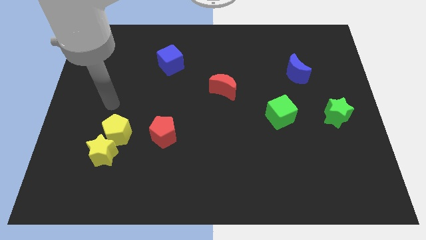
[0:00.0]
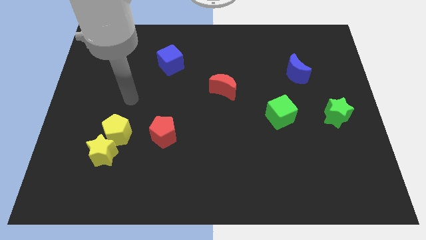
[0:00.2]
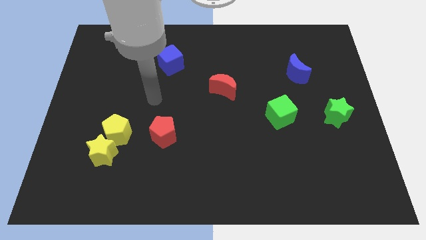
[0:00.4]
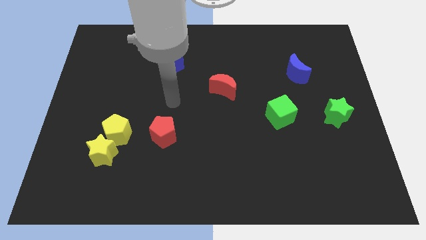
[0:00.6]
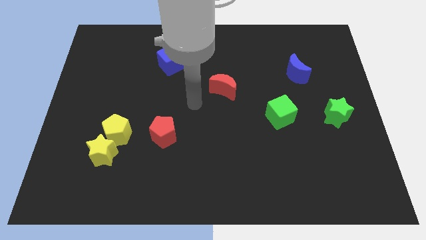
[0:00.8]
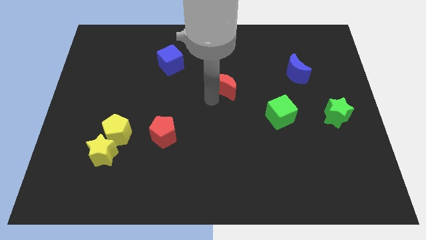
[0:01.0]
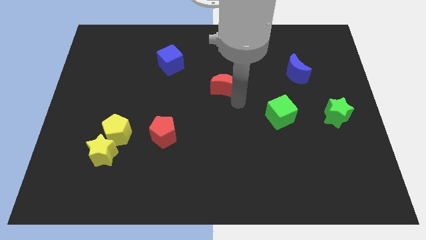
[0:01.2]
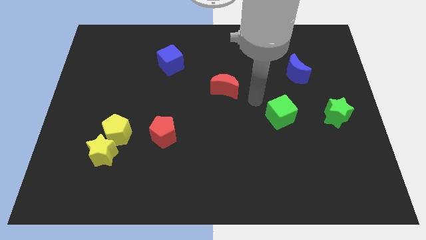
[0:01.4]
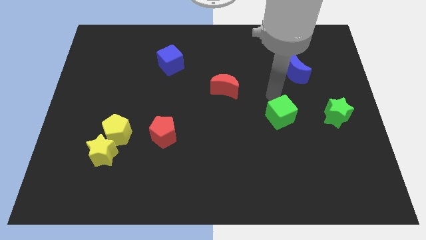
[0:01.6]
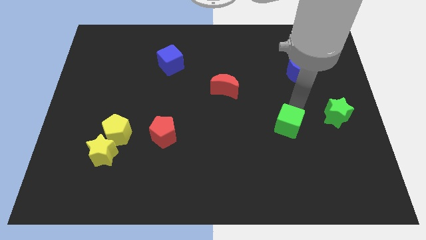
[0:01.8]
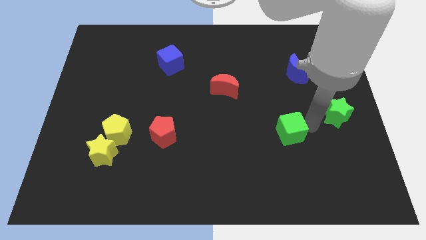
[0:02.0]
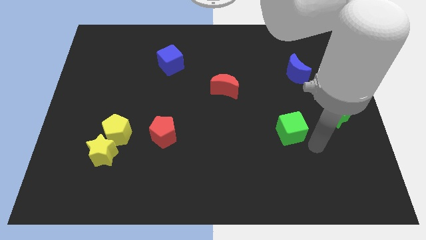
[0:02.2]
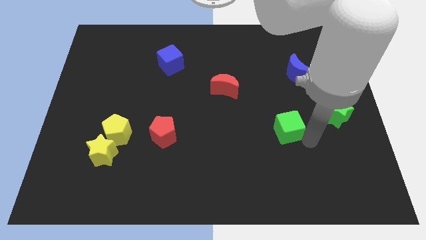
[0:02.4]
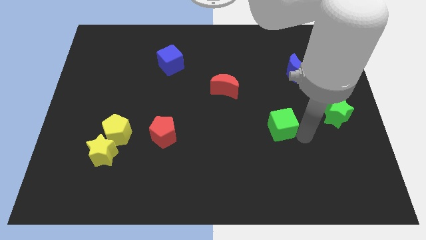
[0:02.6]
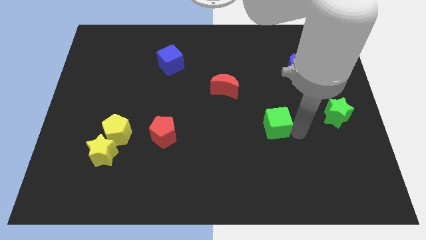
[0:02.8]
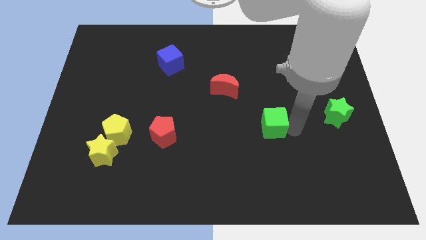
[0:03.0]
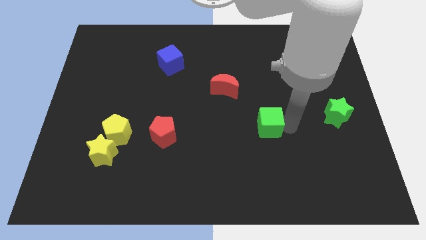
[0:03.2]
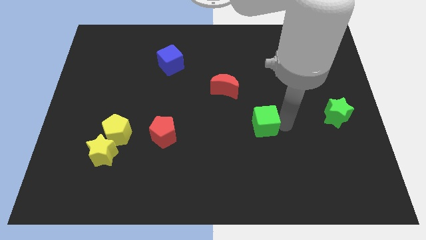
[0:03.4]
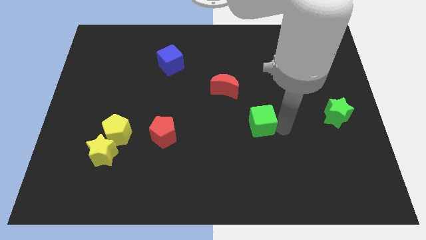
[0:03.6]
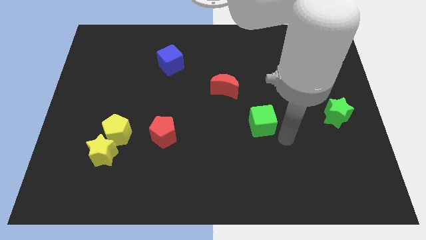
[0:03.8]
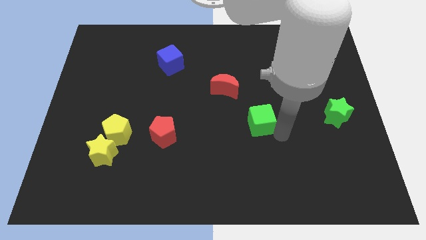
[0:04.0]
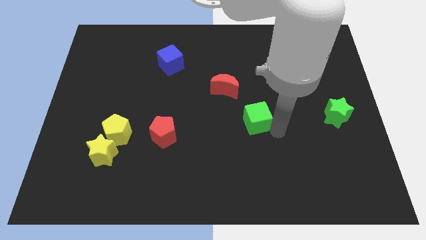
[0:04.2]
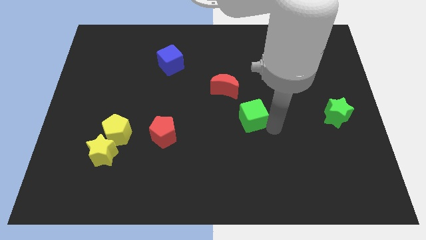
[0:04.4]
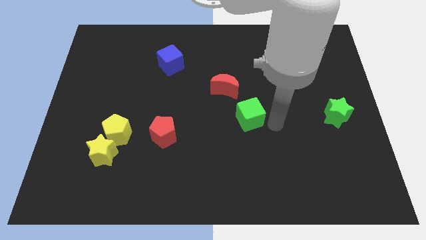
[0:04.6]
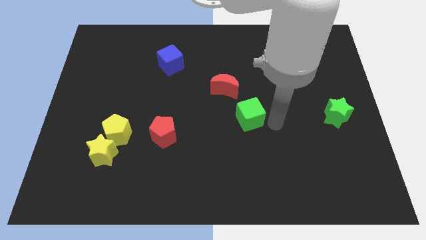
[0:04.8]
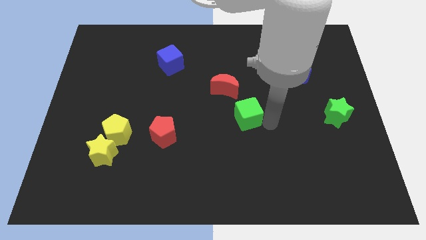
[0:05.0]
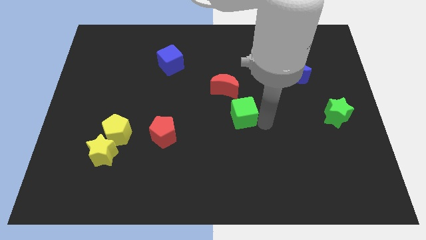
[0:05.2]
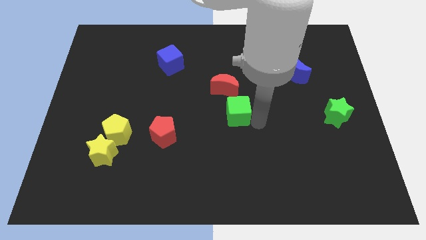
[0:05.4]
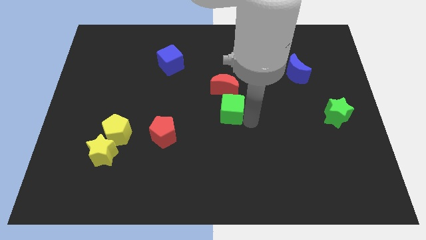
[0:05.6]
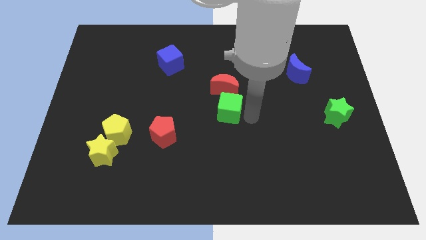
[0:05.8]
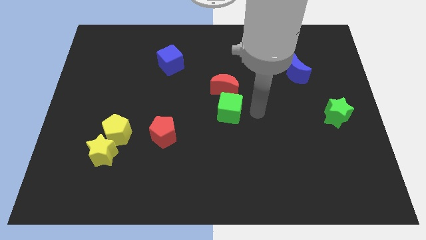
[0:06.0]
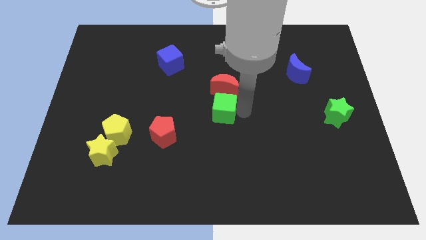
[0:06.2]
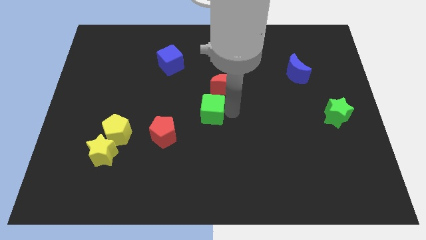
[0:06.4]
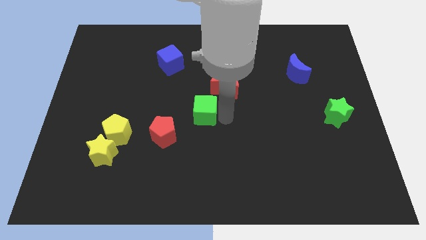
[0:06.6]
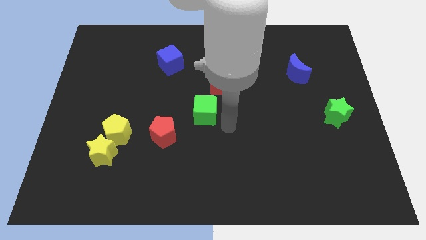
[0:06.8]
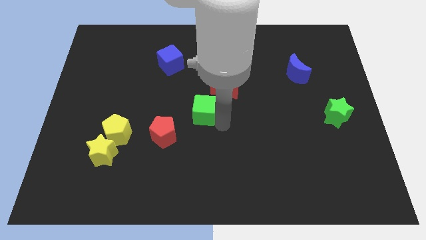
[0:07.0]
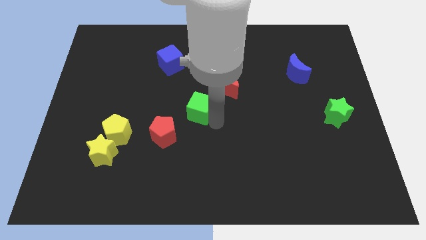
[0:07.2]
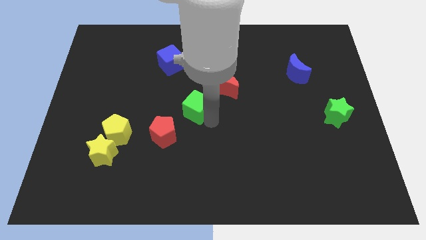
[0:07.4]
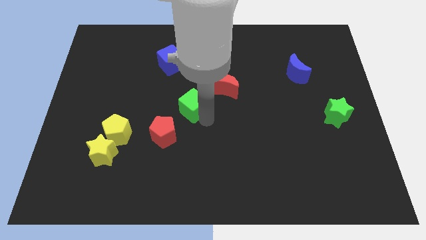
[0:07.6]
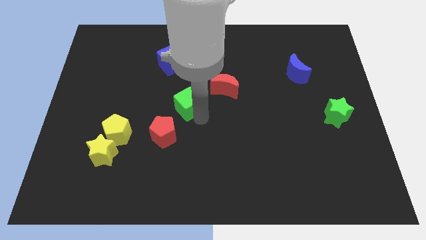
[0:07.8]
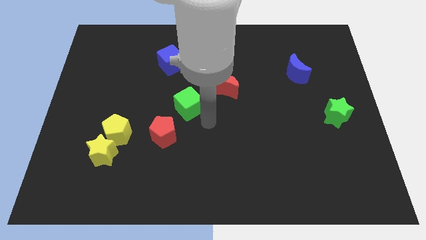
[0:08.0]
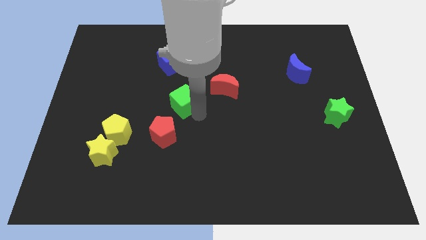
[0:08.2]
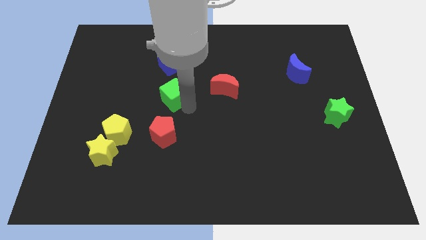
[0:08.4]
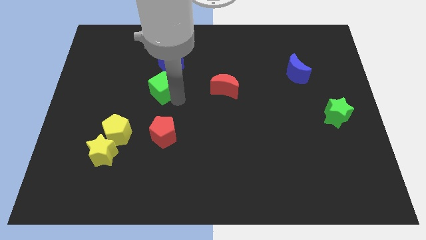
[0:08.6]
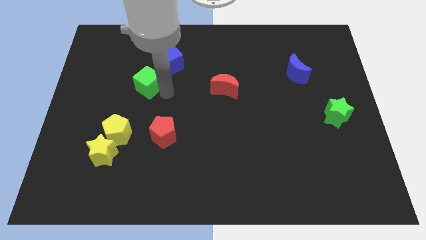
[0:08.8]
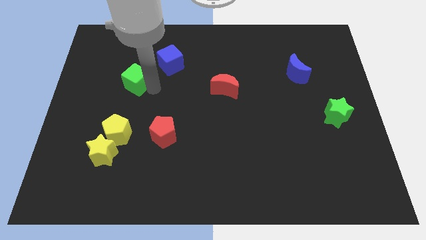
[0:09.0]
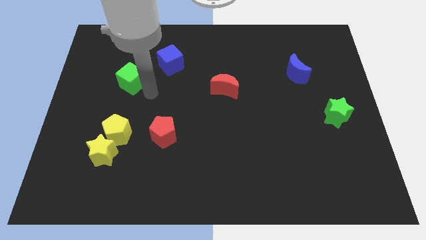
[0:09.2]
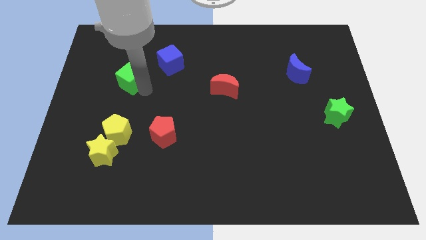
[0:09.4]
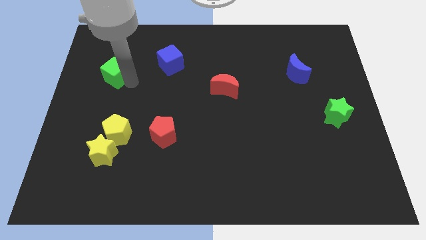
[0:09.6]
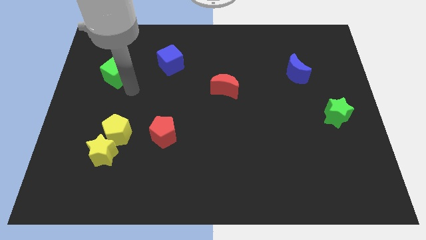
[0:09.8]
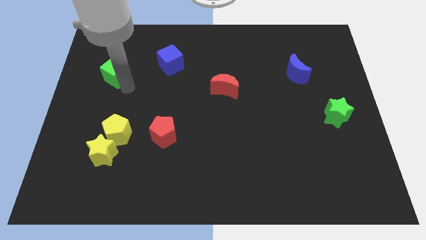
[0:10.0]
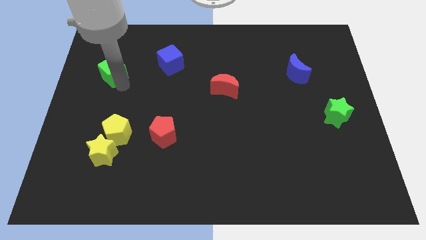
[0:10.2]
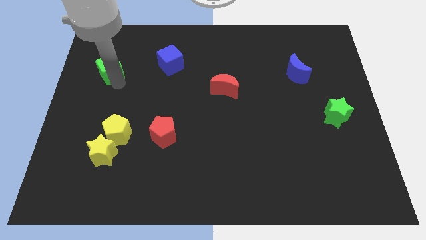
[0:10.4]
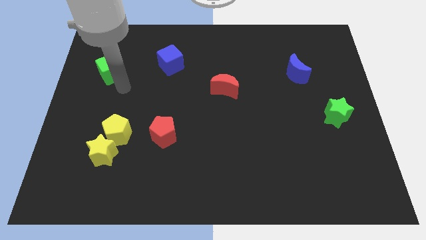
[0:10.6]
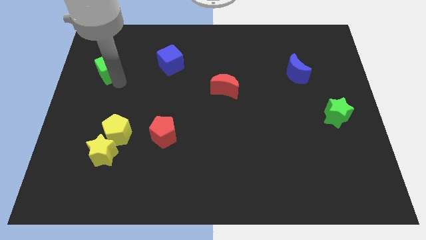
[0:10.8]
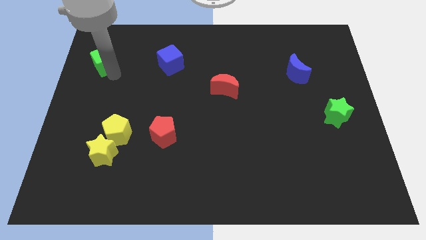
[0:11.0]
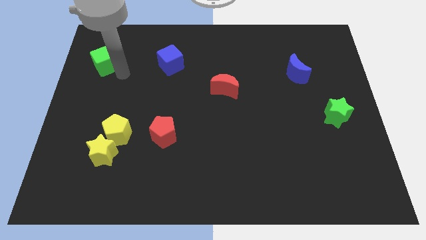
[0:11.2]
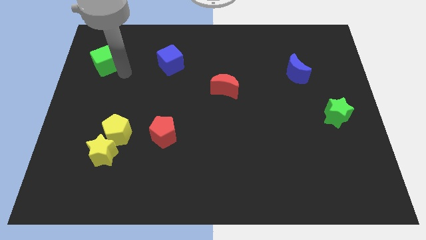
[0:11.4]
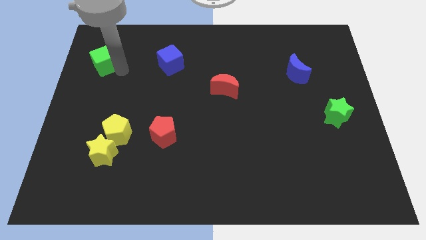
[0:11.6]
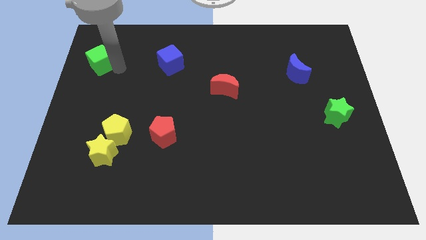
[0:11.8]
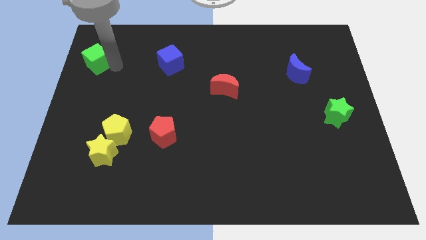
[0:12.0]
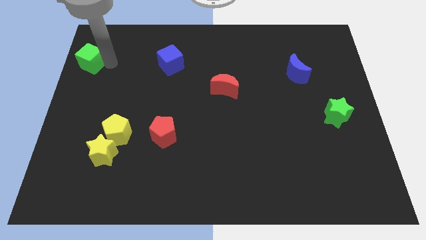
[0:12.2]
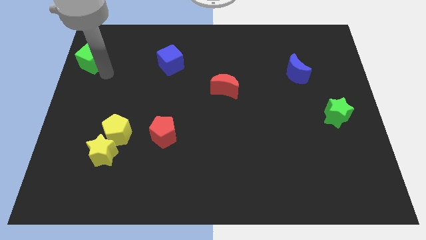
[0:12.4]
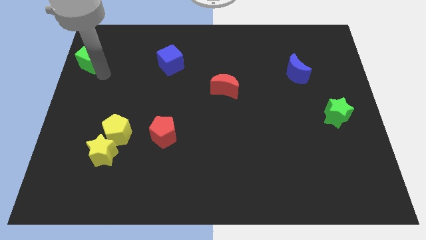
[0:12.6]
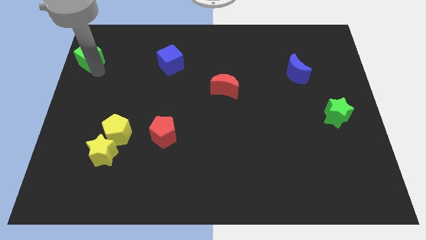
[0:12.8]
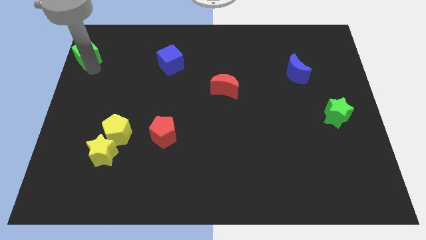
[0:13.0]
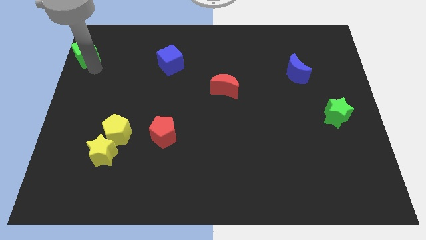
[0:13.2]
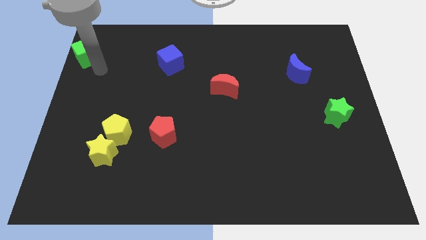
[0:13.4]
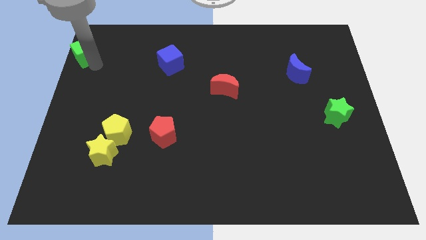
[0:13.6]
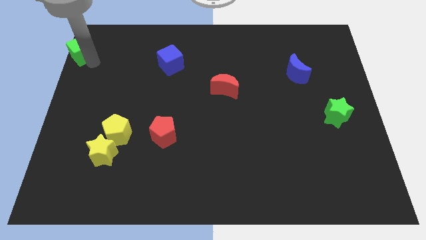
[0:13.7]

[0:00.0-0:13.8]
push the green cube to the top left of the board
